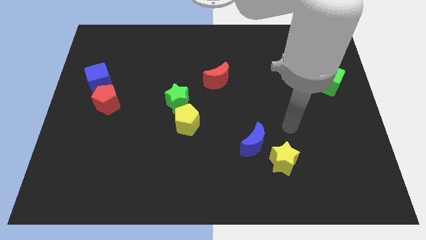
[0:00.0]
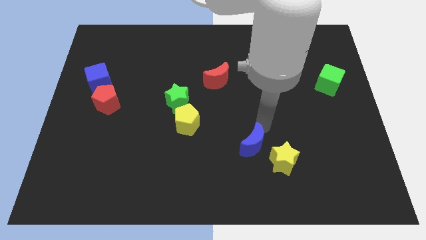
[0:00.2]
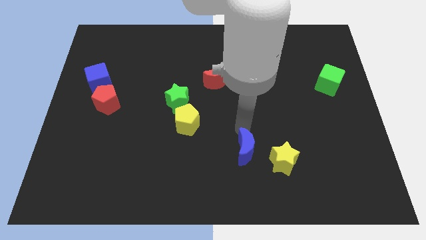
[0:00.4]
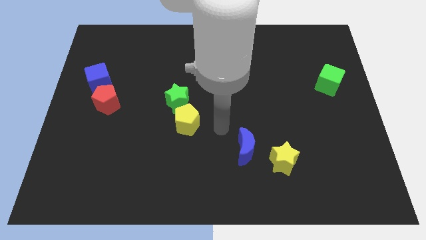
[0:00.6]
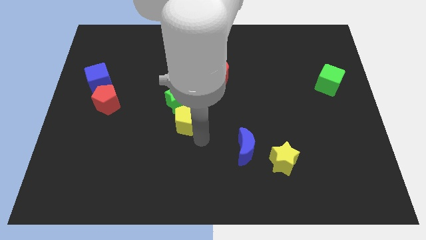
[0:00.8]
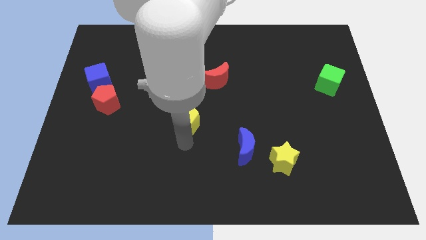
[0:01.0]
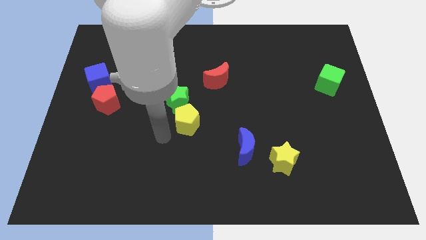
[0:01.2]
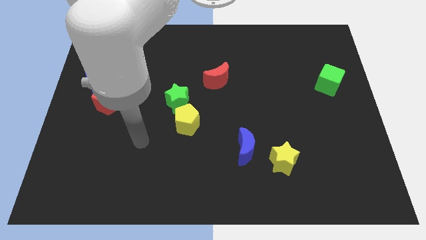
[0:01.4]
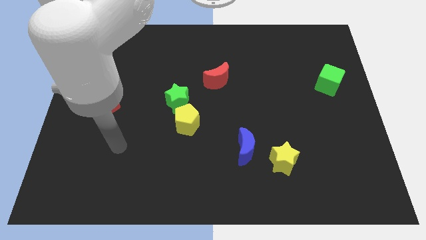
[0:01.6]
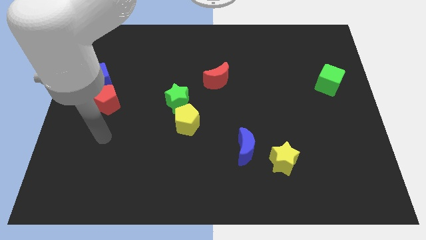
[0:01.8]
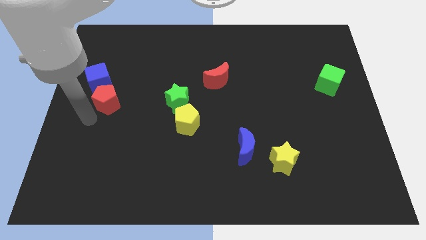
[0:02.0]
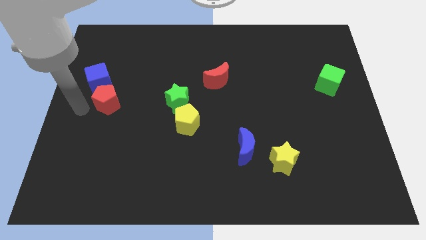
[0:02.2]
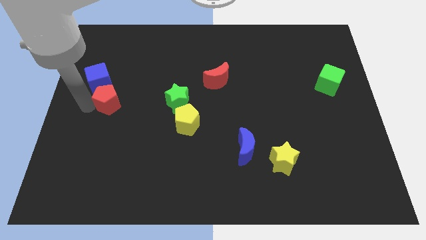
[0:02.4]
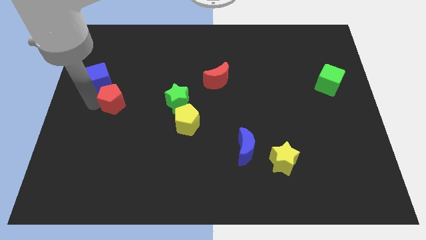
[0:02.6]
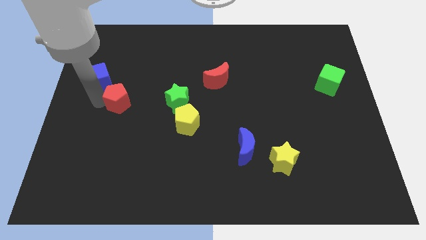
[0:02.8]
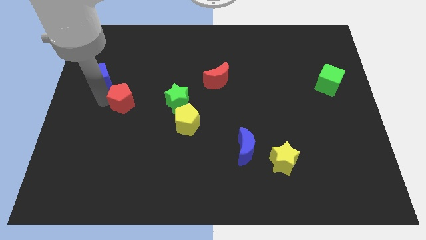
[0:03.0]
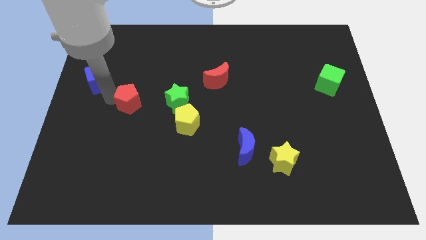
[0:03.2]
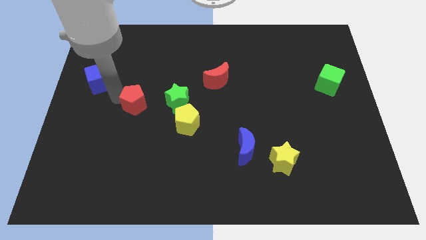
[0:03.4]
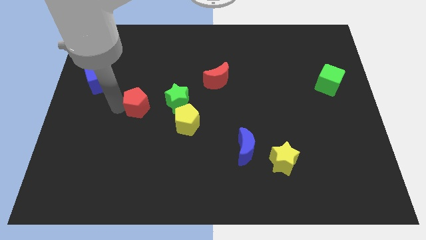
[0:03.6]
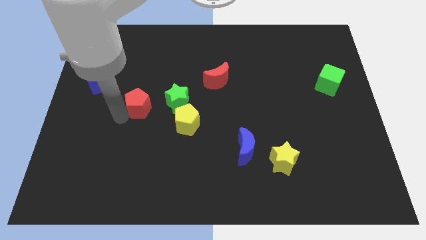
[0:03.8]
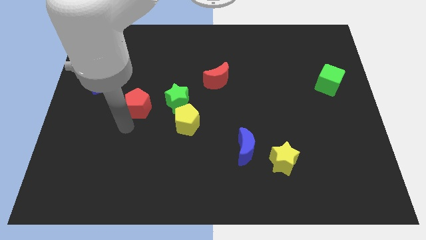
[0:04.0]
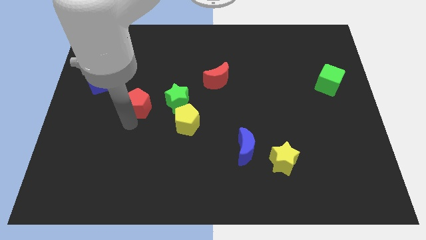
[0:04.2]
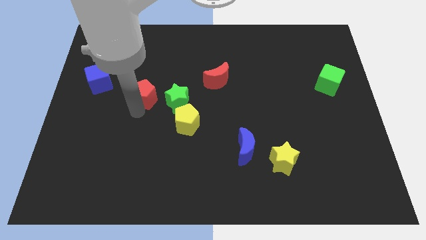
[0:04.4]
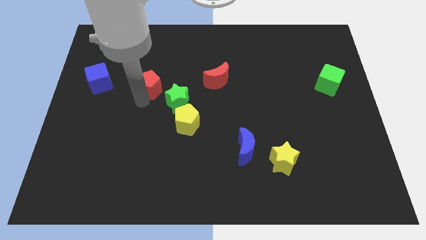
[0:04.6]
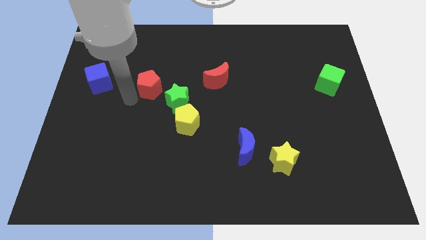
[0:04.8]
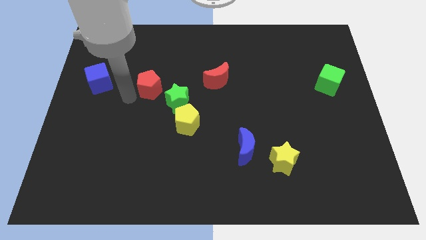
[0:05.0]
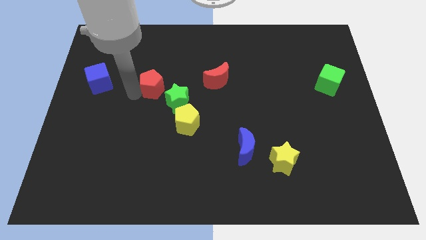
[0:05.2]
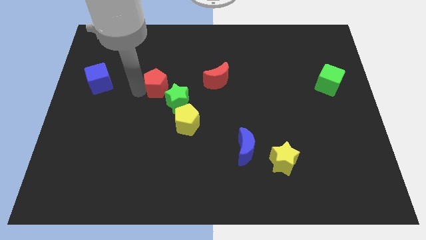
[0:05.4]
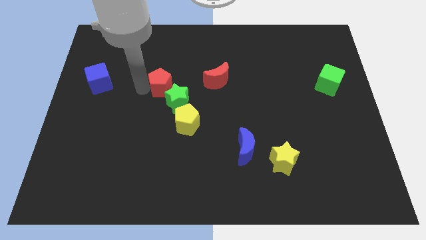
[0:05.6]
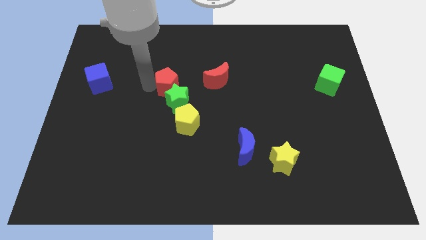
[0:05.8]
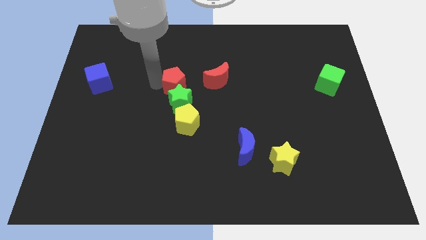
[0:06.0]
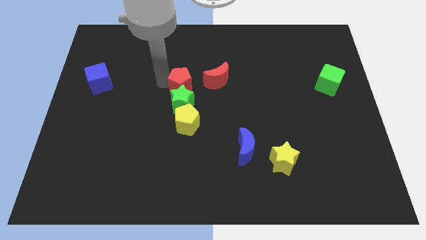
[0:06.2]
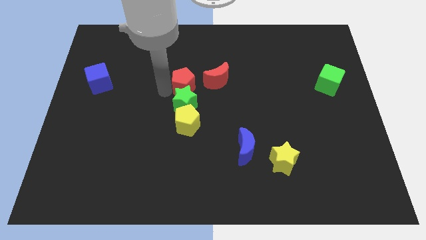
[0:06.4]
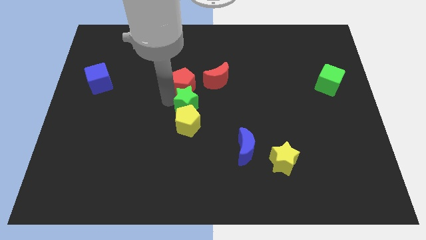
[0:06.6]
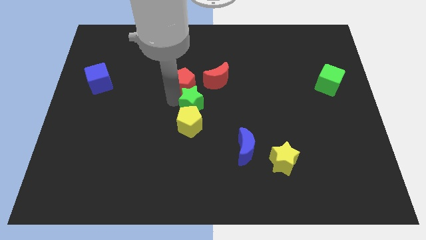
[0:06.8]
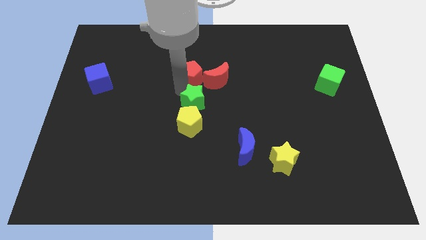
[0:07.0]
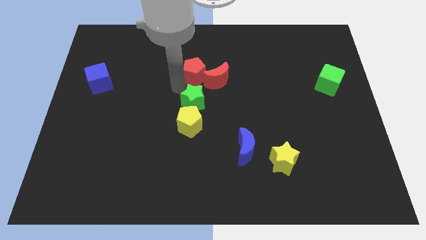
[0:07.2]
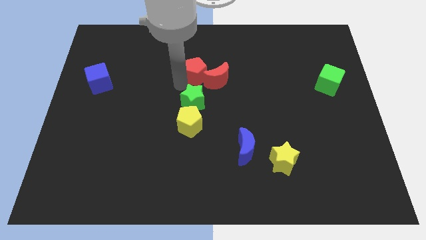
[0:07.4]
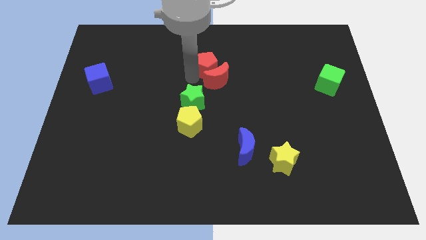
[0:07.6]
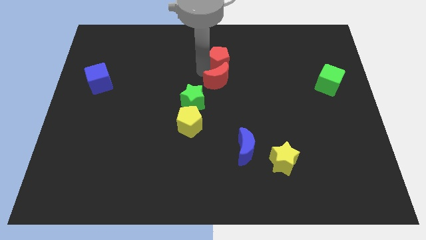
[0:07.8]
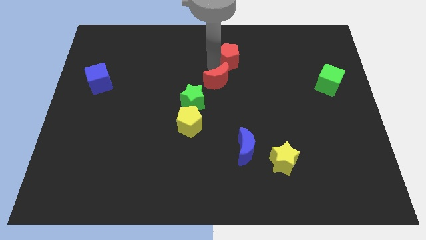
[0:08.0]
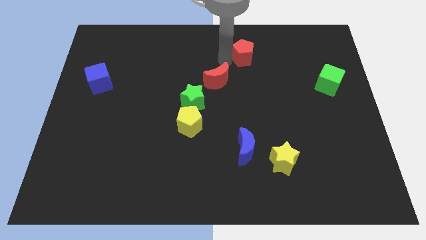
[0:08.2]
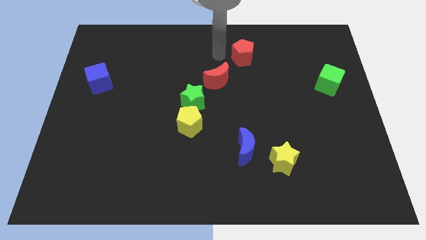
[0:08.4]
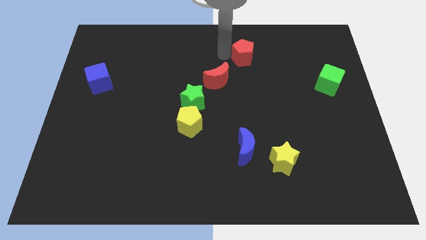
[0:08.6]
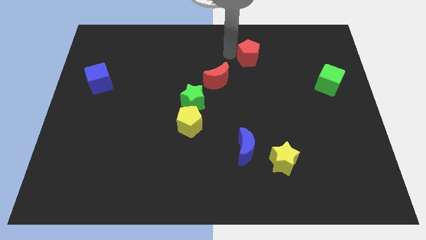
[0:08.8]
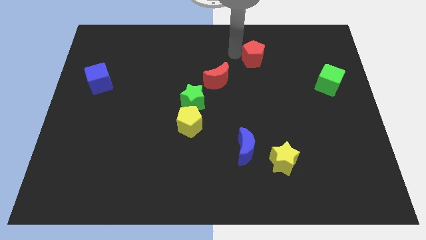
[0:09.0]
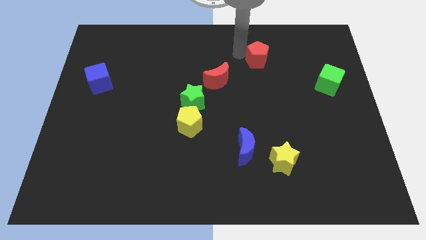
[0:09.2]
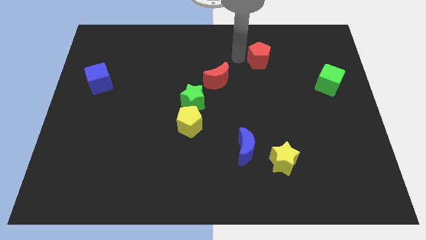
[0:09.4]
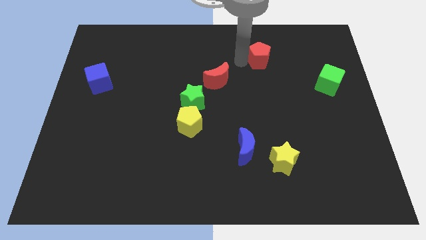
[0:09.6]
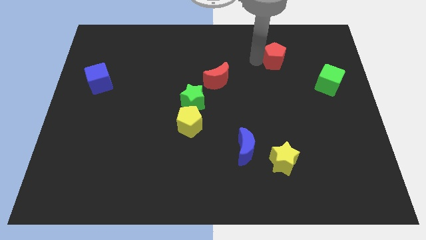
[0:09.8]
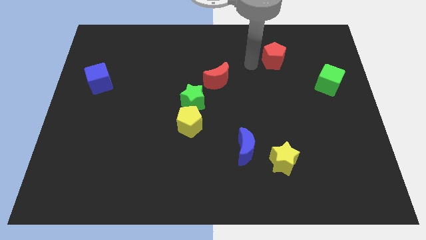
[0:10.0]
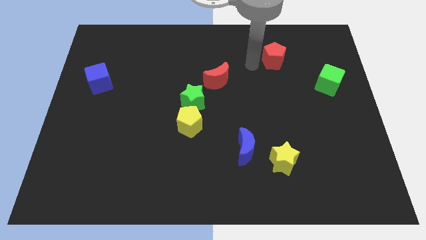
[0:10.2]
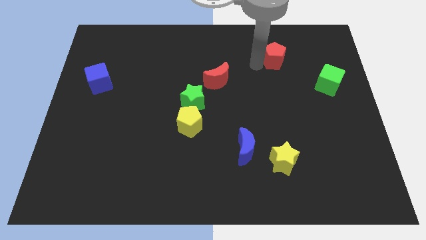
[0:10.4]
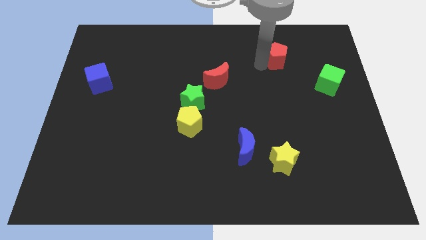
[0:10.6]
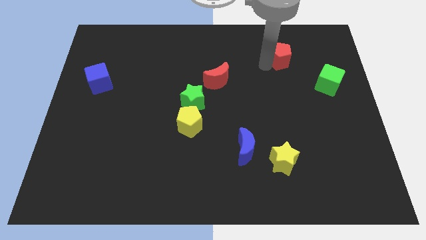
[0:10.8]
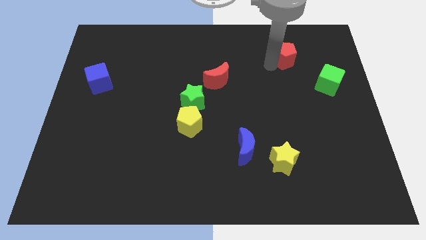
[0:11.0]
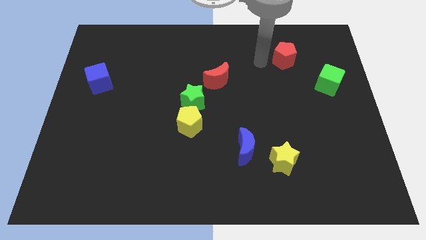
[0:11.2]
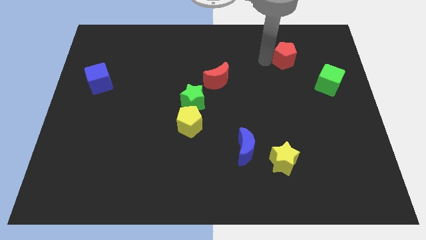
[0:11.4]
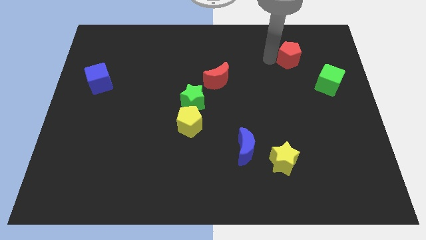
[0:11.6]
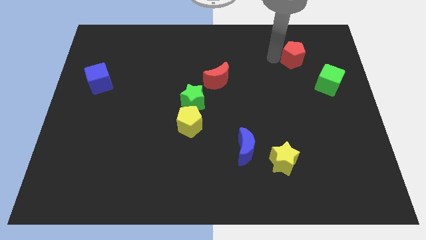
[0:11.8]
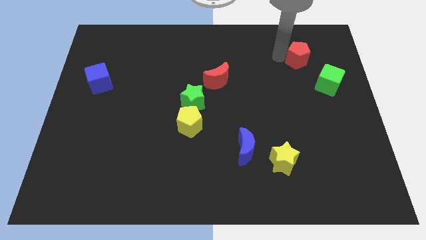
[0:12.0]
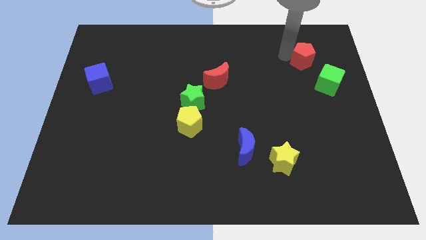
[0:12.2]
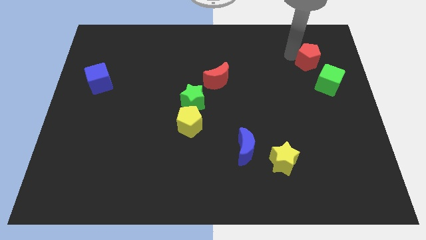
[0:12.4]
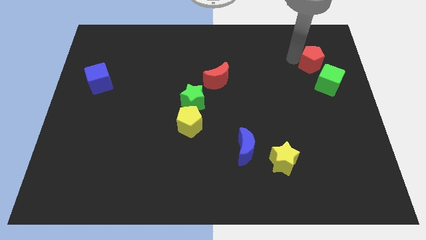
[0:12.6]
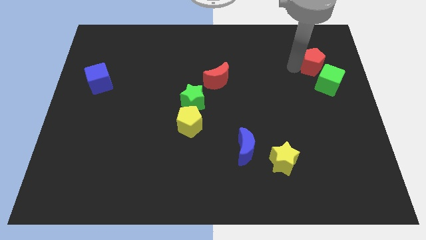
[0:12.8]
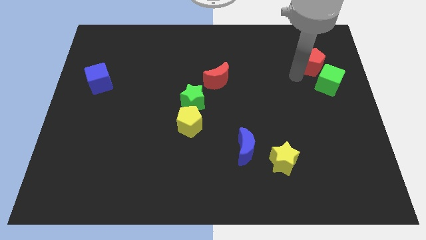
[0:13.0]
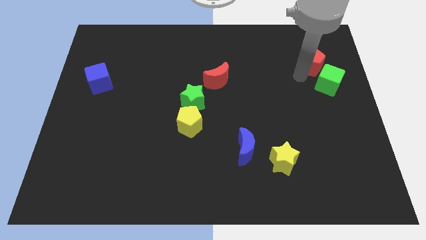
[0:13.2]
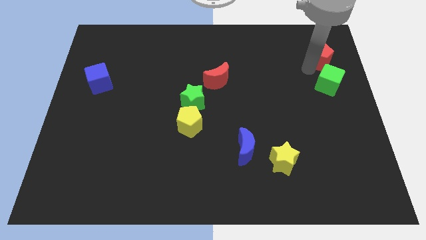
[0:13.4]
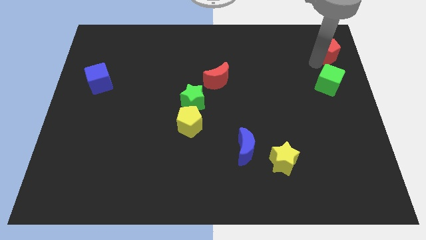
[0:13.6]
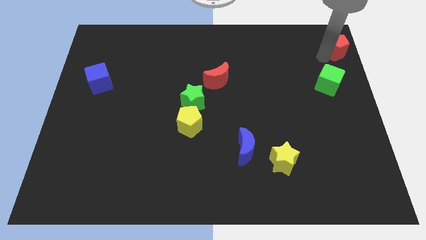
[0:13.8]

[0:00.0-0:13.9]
slide the red pentagon to the top right corner
